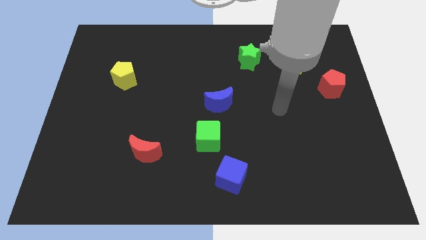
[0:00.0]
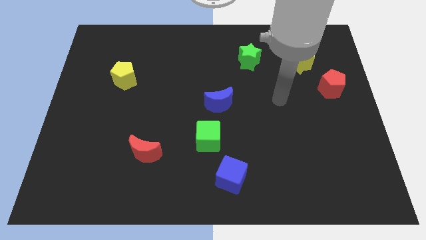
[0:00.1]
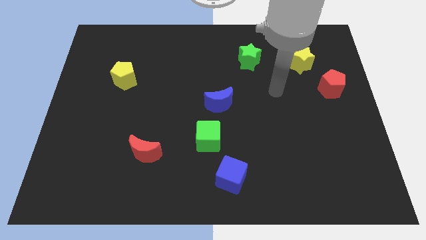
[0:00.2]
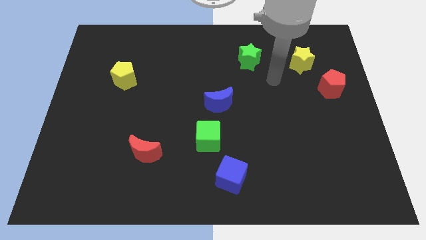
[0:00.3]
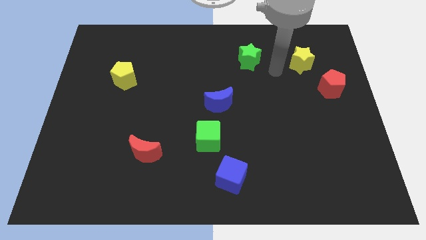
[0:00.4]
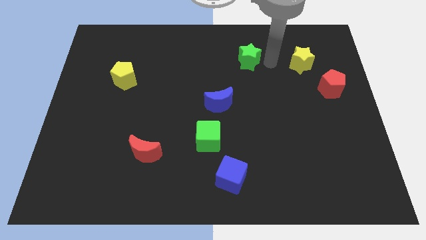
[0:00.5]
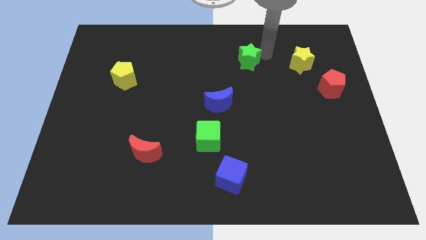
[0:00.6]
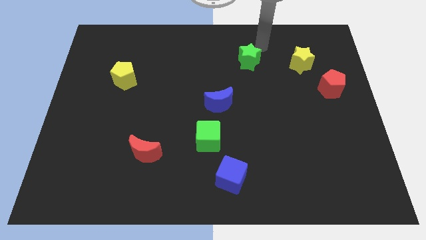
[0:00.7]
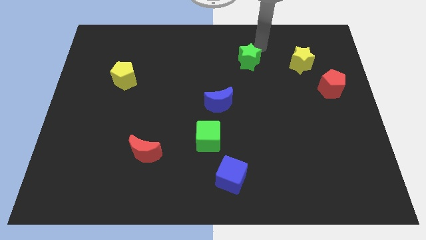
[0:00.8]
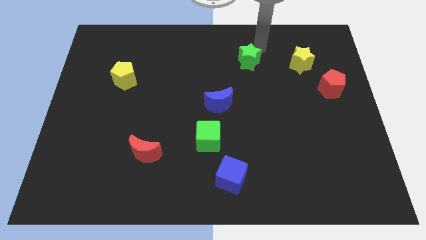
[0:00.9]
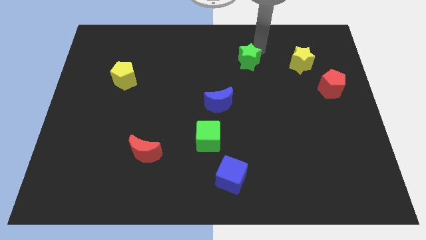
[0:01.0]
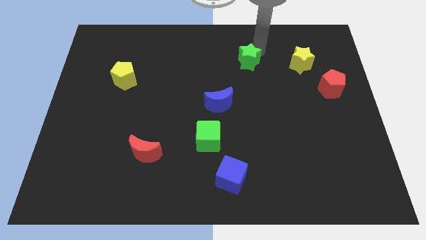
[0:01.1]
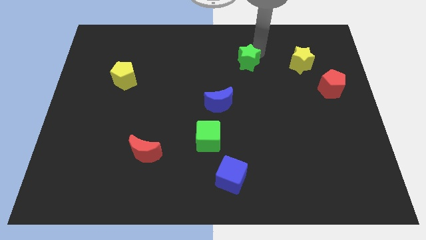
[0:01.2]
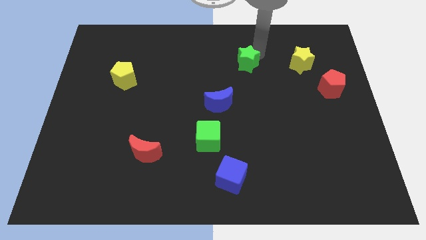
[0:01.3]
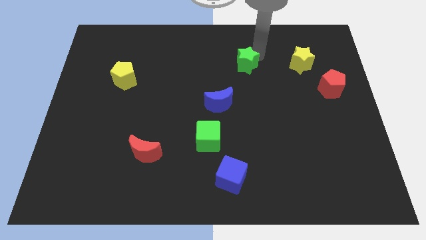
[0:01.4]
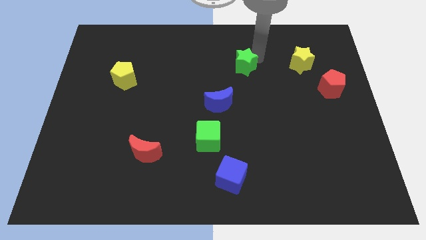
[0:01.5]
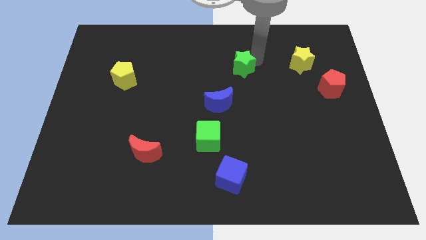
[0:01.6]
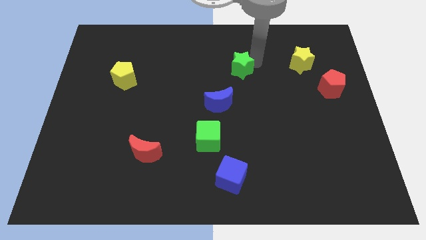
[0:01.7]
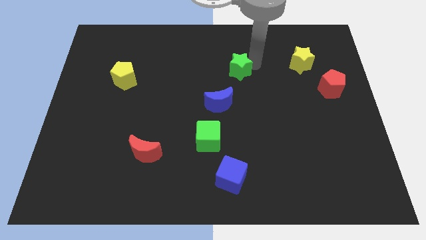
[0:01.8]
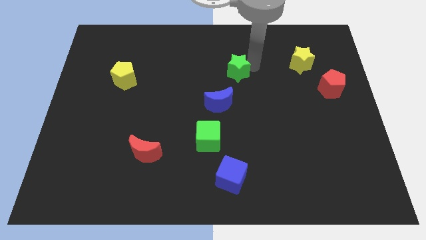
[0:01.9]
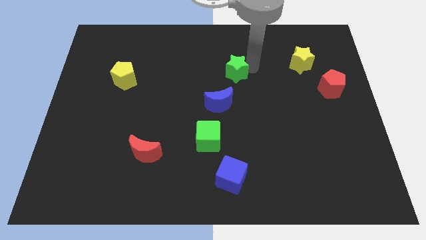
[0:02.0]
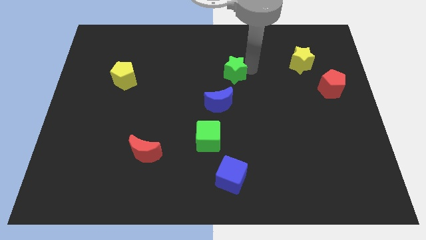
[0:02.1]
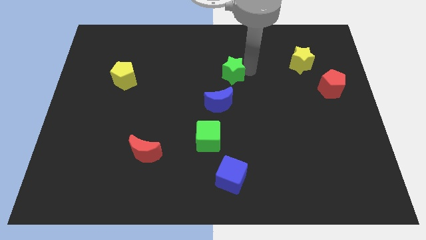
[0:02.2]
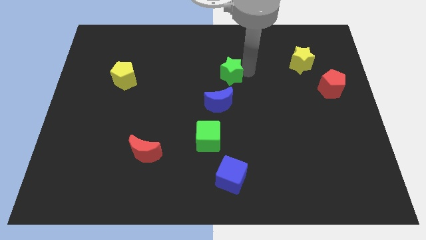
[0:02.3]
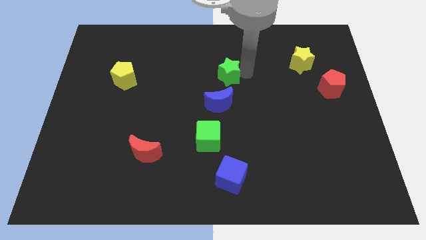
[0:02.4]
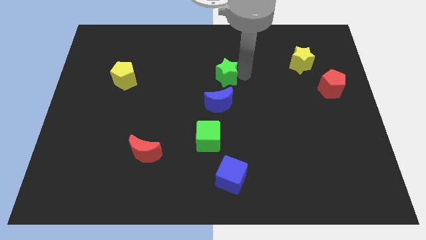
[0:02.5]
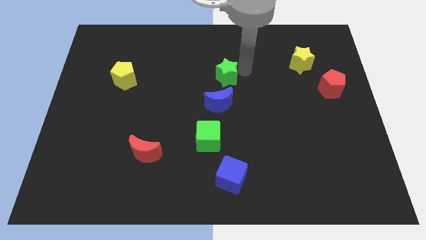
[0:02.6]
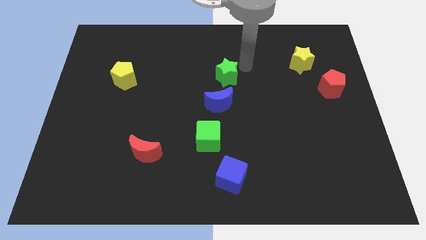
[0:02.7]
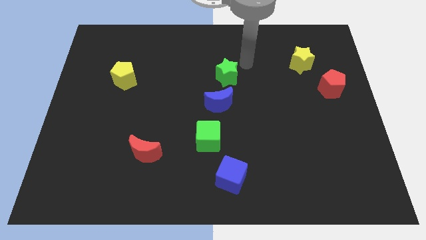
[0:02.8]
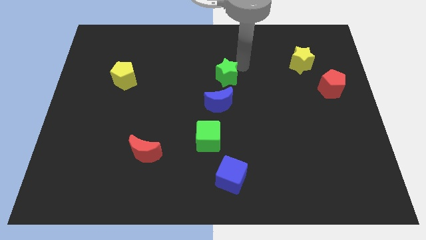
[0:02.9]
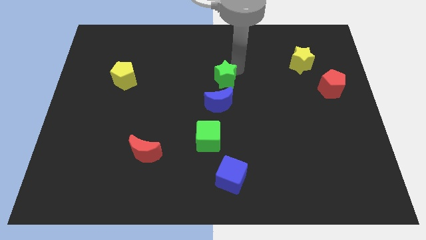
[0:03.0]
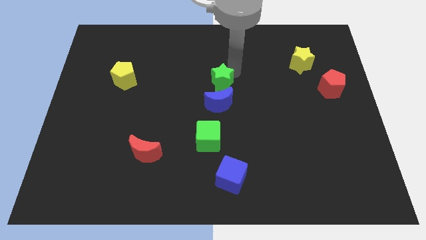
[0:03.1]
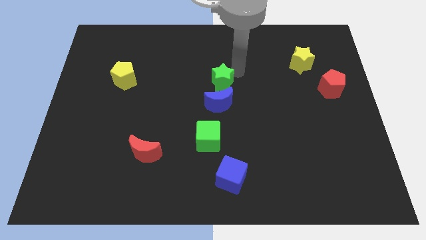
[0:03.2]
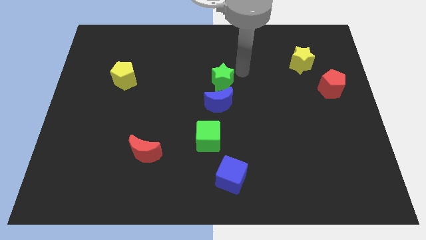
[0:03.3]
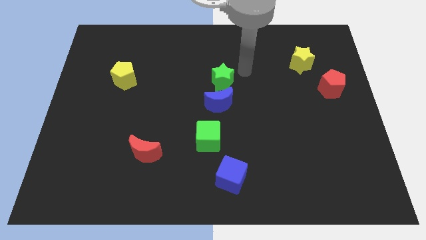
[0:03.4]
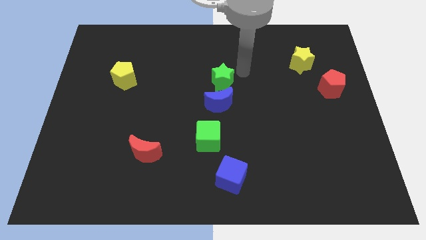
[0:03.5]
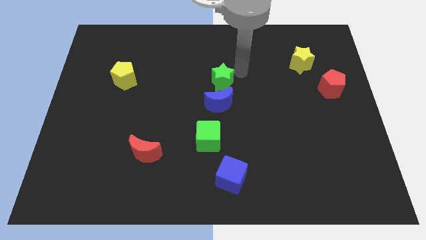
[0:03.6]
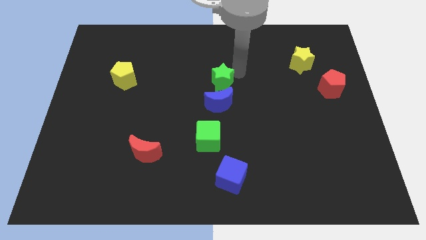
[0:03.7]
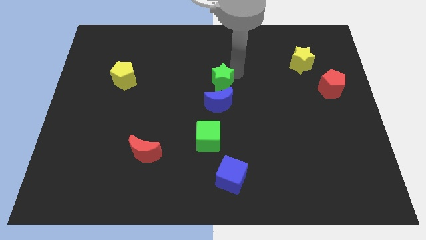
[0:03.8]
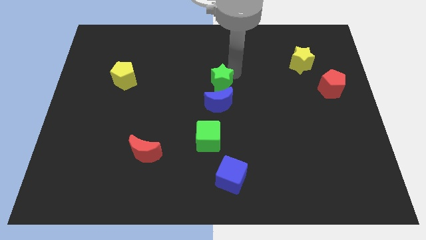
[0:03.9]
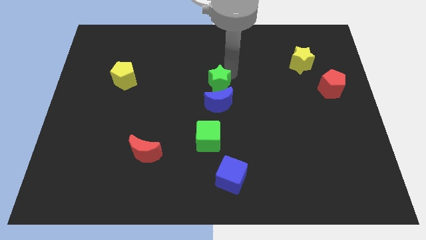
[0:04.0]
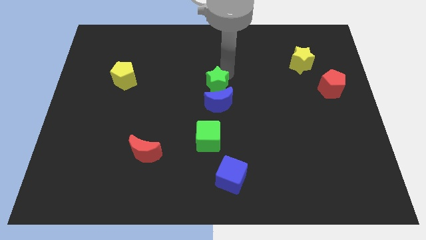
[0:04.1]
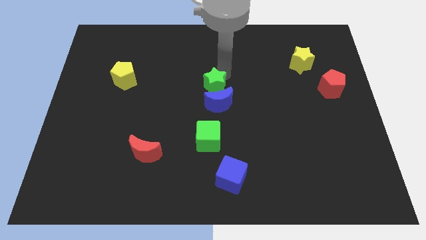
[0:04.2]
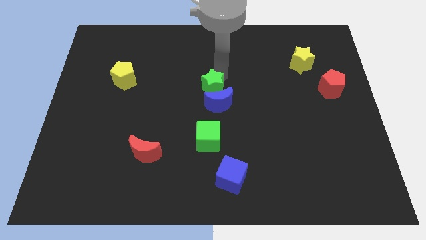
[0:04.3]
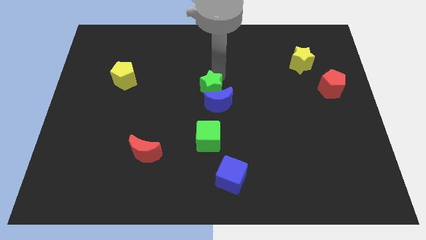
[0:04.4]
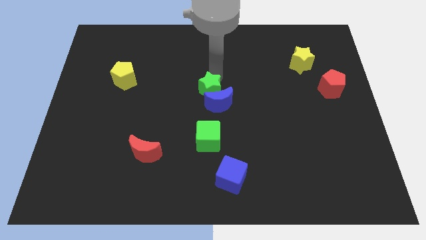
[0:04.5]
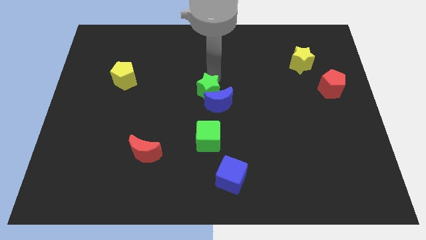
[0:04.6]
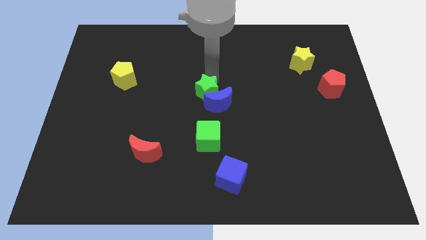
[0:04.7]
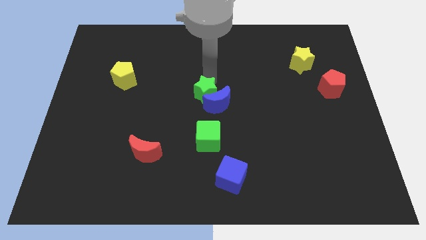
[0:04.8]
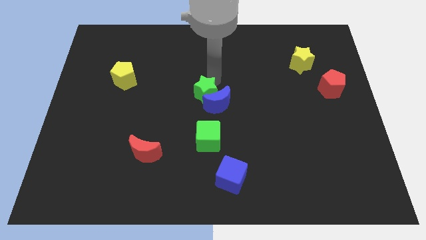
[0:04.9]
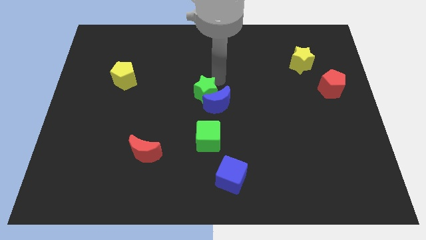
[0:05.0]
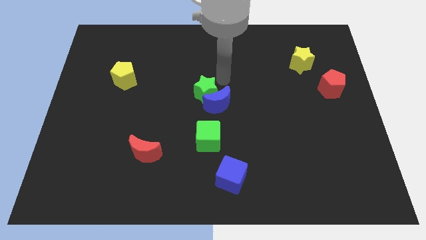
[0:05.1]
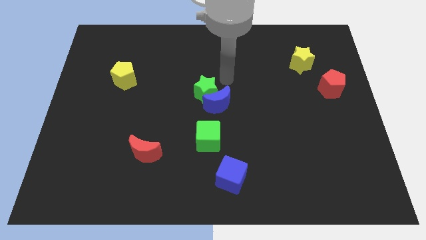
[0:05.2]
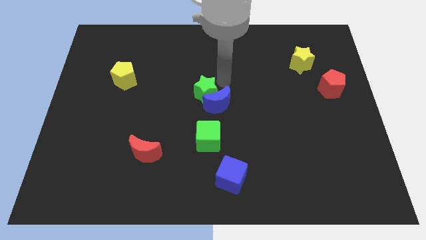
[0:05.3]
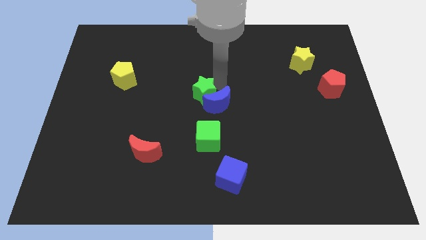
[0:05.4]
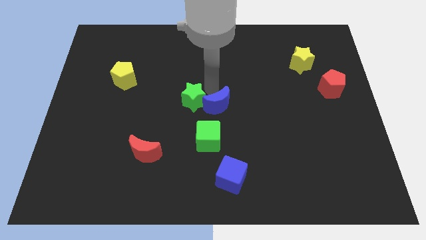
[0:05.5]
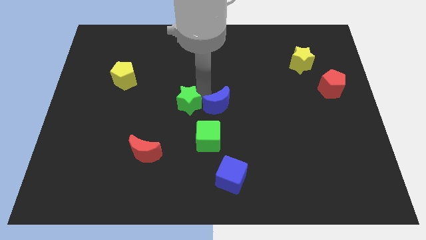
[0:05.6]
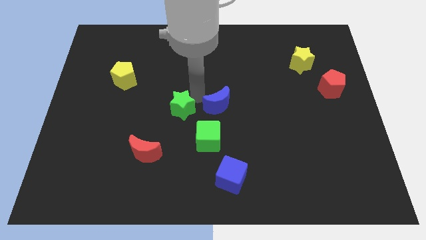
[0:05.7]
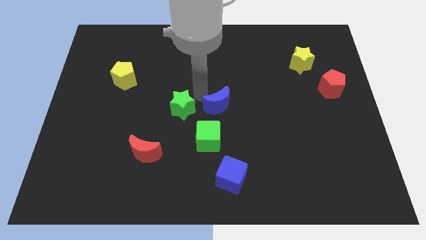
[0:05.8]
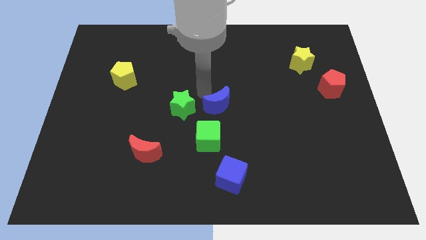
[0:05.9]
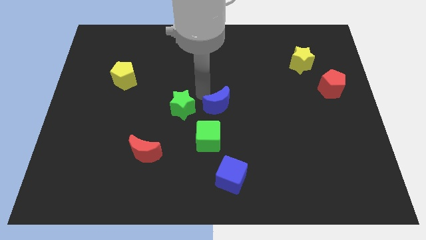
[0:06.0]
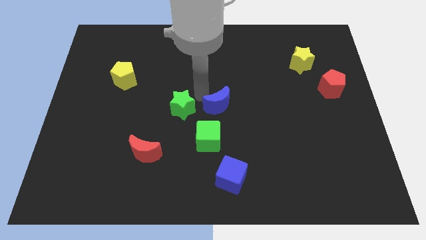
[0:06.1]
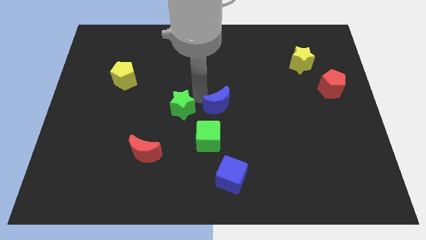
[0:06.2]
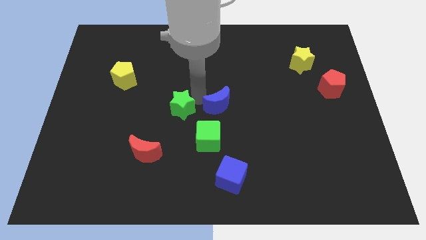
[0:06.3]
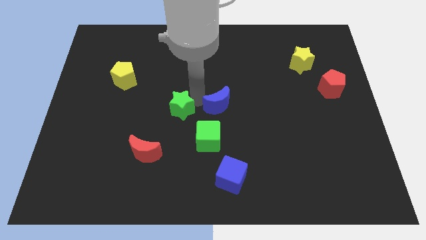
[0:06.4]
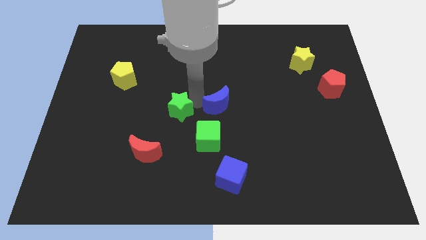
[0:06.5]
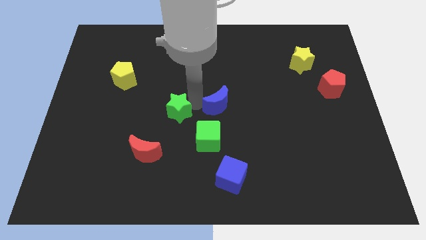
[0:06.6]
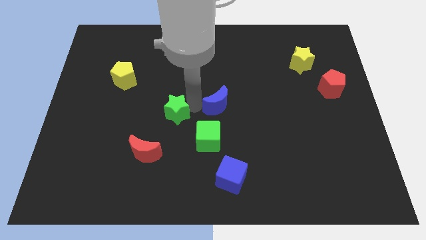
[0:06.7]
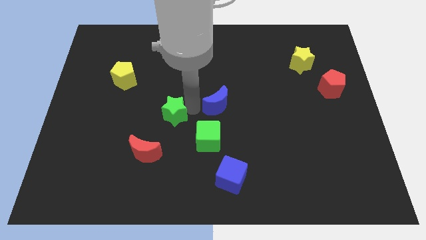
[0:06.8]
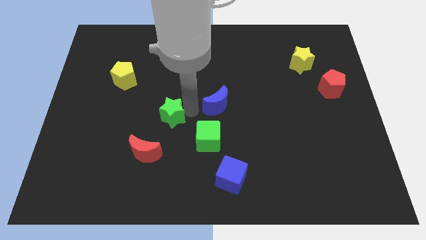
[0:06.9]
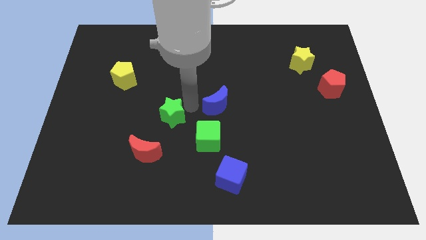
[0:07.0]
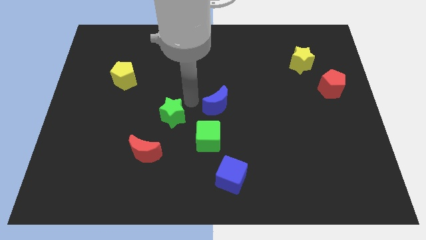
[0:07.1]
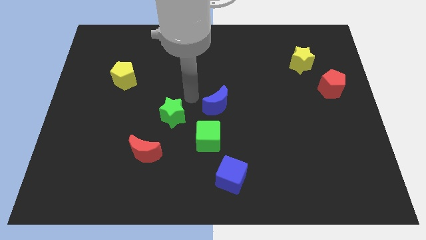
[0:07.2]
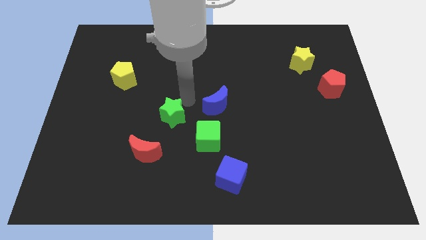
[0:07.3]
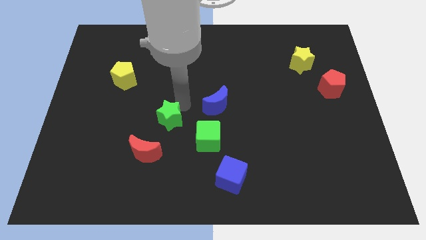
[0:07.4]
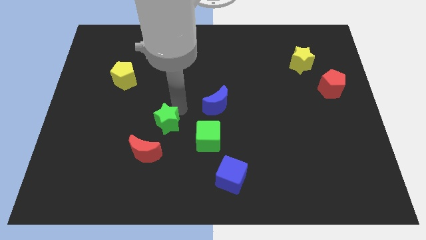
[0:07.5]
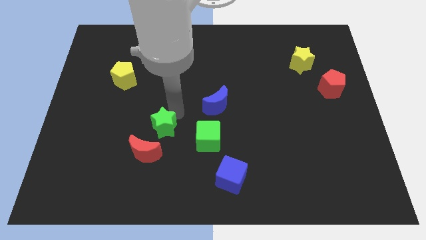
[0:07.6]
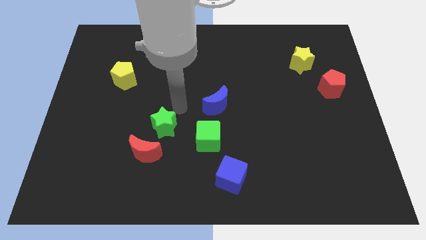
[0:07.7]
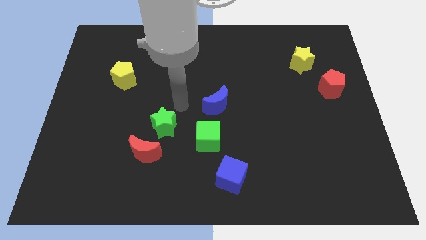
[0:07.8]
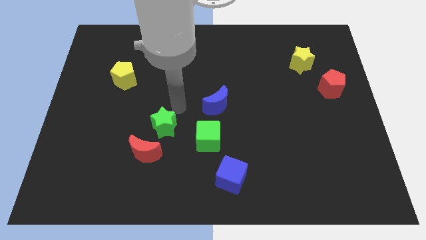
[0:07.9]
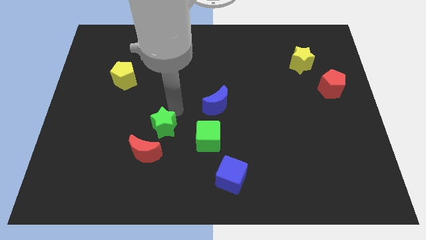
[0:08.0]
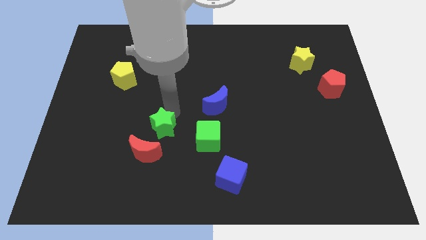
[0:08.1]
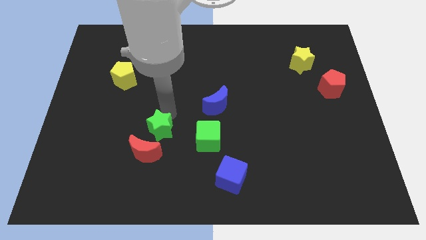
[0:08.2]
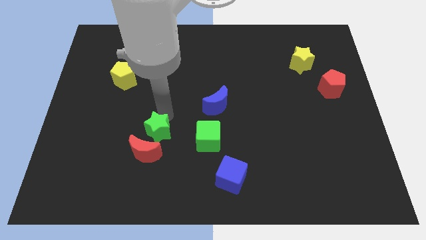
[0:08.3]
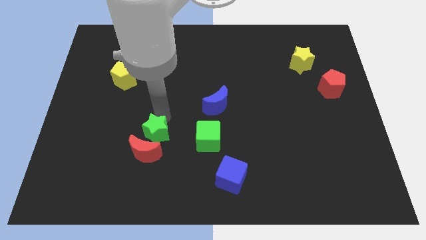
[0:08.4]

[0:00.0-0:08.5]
slide the green star close to the red moon

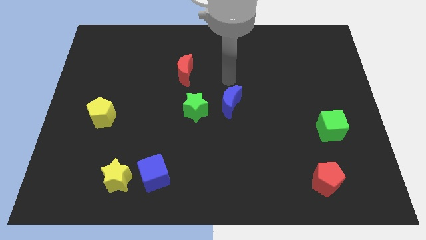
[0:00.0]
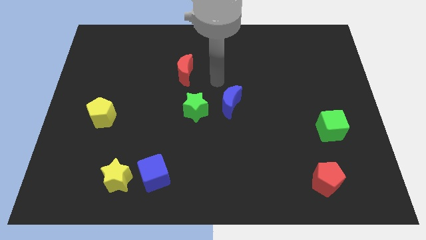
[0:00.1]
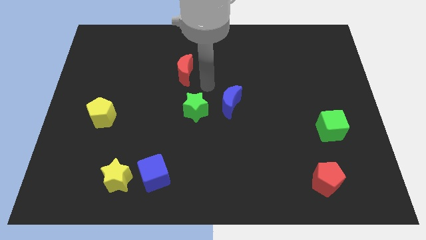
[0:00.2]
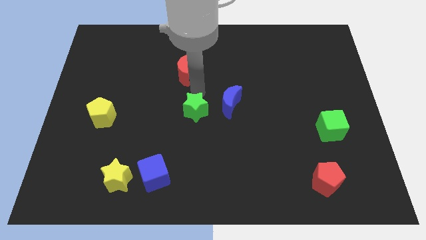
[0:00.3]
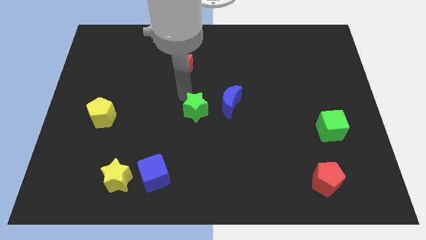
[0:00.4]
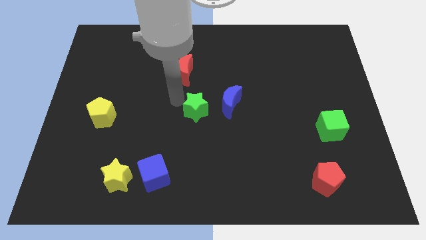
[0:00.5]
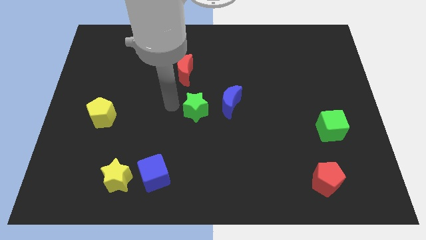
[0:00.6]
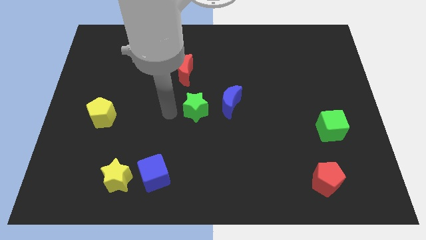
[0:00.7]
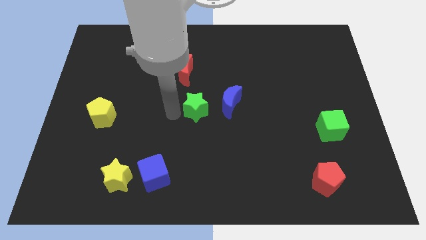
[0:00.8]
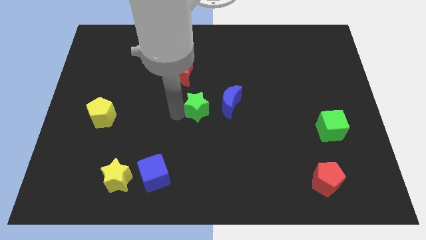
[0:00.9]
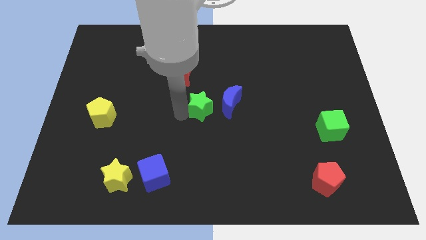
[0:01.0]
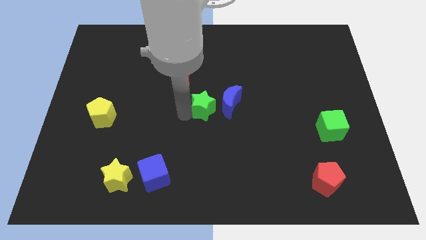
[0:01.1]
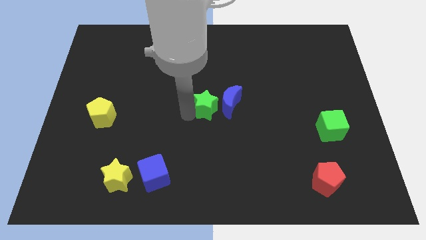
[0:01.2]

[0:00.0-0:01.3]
push the green star to the blue moon
